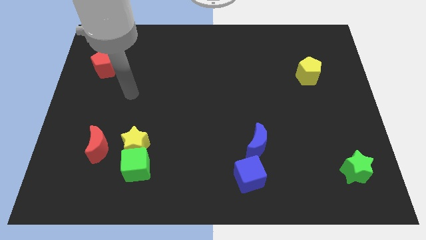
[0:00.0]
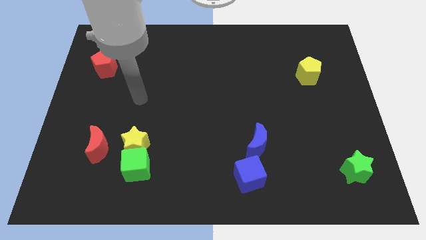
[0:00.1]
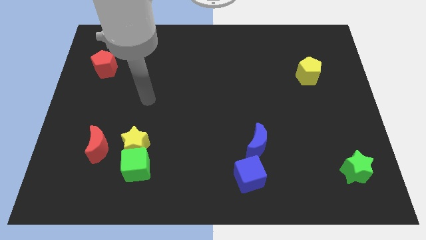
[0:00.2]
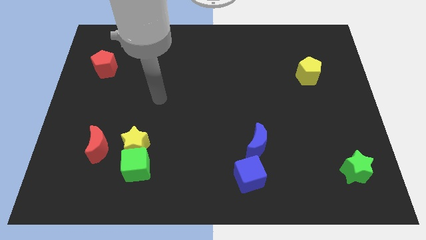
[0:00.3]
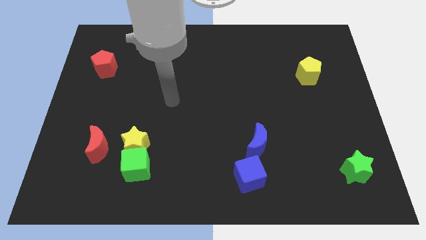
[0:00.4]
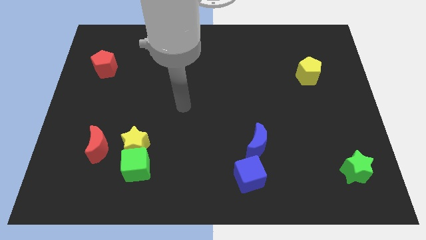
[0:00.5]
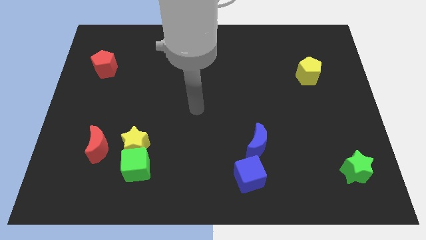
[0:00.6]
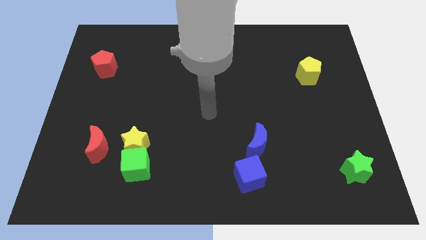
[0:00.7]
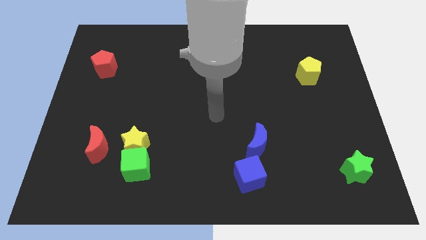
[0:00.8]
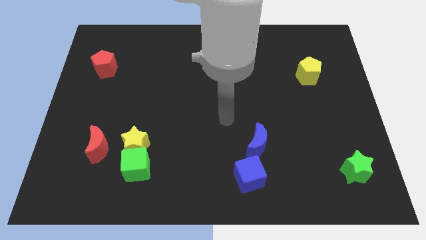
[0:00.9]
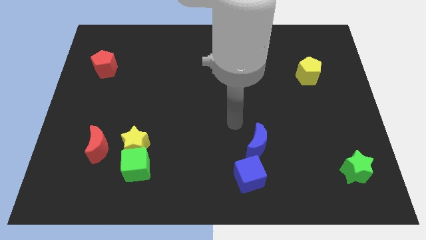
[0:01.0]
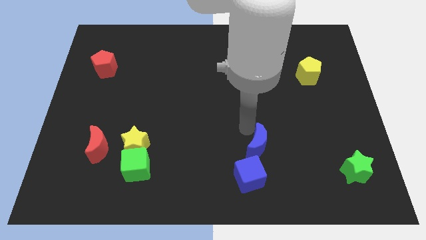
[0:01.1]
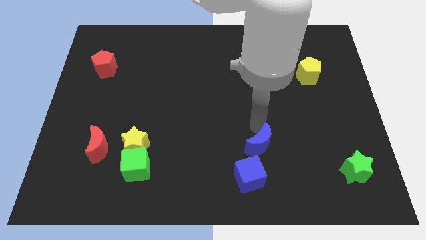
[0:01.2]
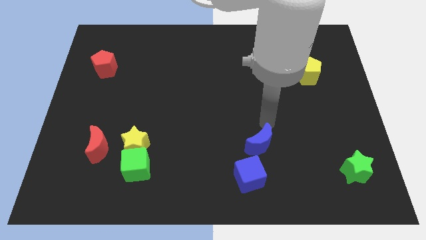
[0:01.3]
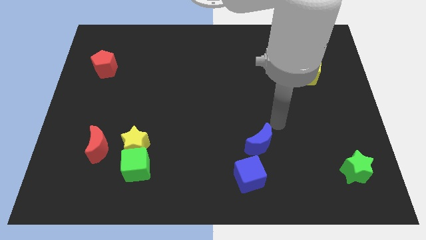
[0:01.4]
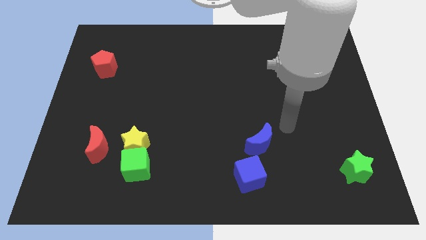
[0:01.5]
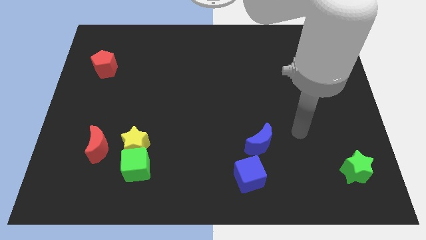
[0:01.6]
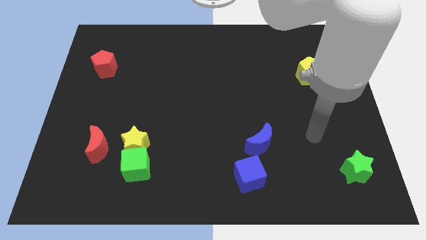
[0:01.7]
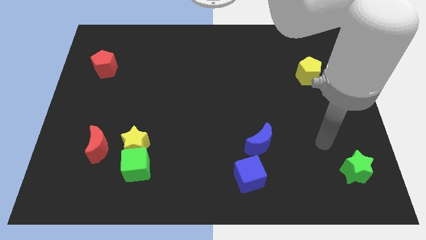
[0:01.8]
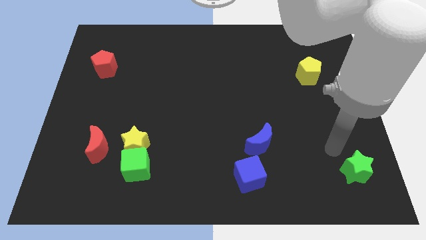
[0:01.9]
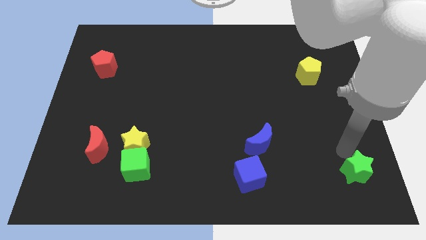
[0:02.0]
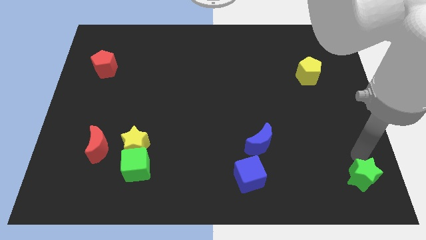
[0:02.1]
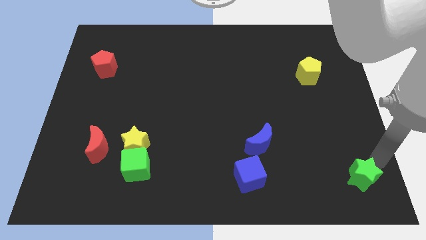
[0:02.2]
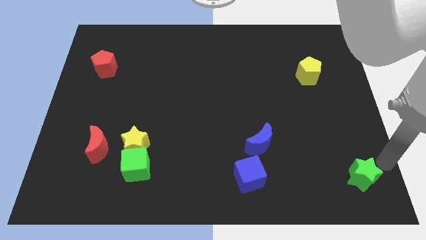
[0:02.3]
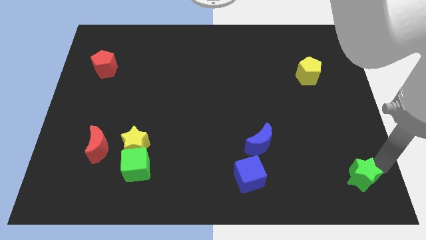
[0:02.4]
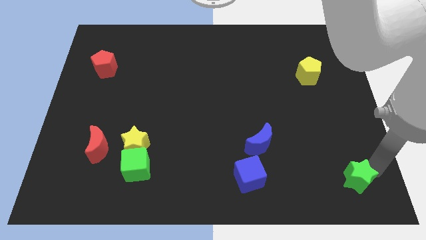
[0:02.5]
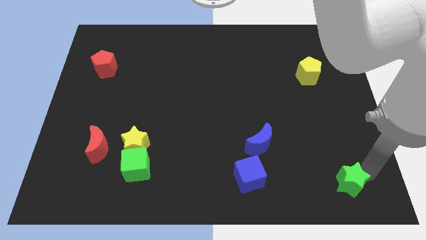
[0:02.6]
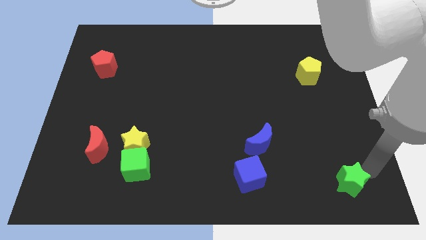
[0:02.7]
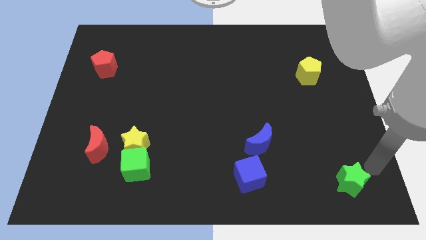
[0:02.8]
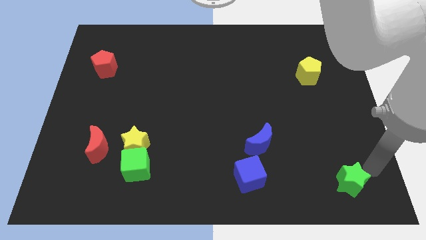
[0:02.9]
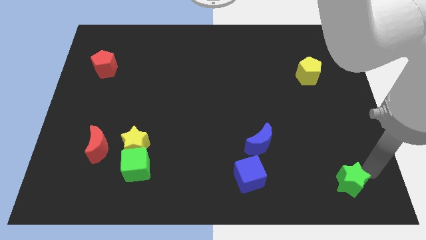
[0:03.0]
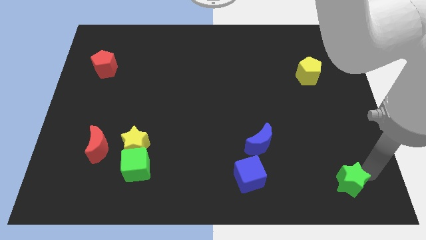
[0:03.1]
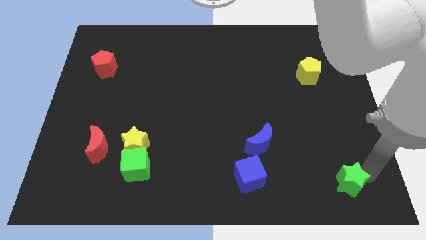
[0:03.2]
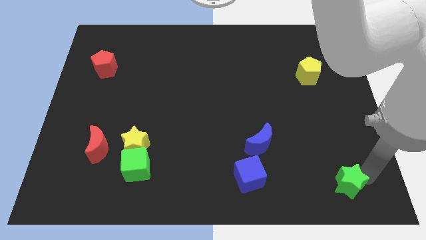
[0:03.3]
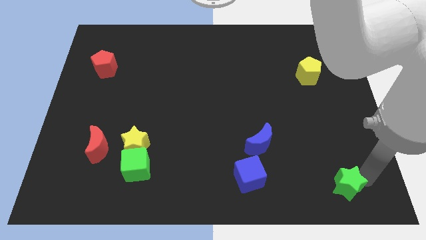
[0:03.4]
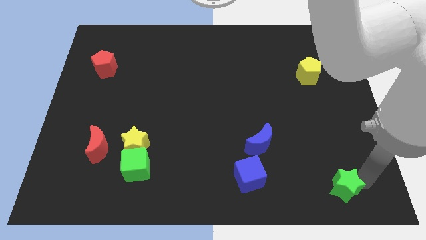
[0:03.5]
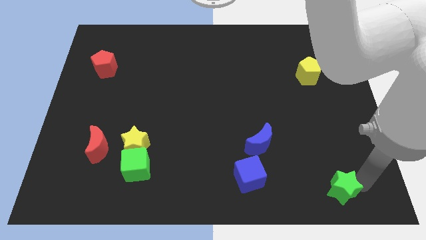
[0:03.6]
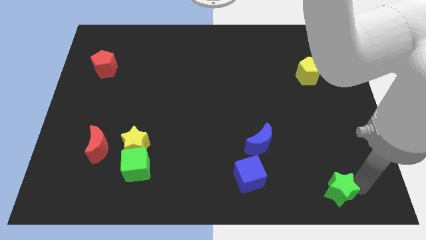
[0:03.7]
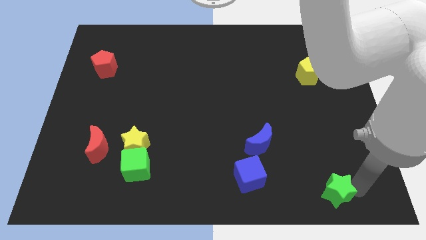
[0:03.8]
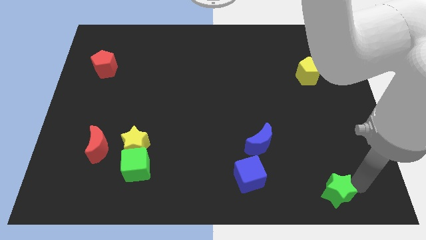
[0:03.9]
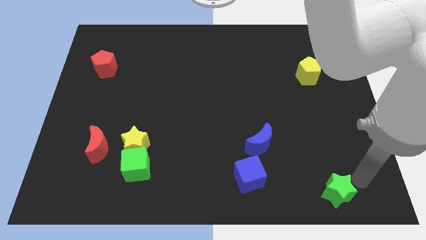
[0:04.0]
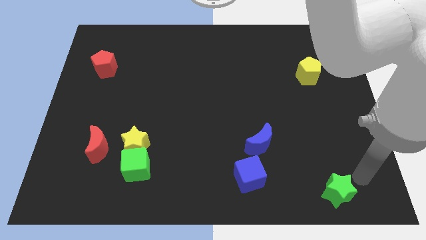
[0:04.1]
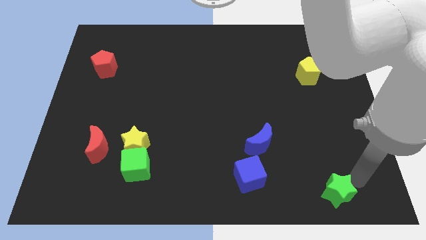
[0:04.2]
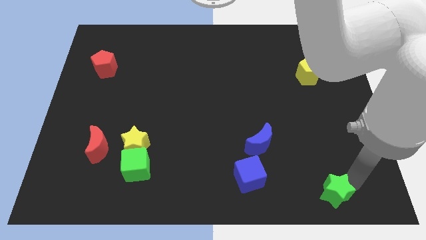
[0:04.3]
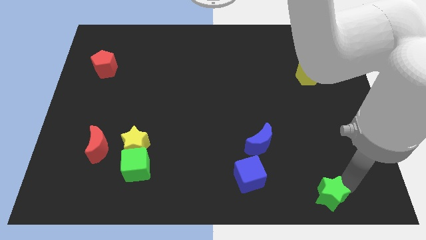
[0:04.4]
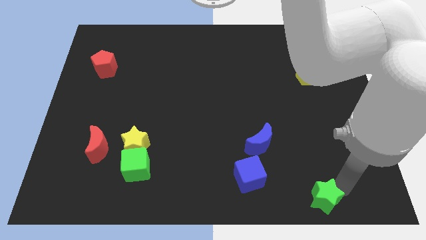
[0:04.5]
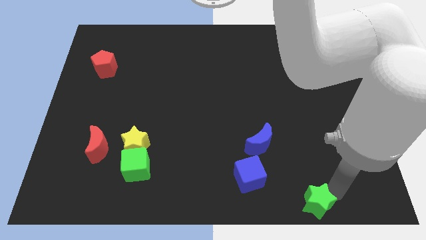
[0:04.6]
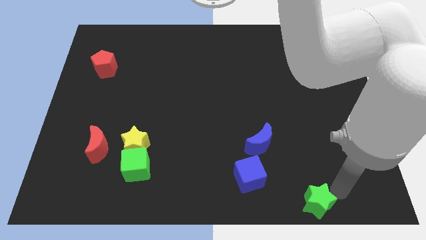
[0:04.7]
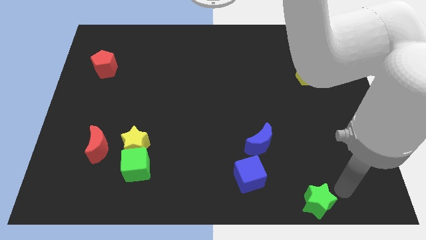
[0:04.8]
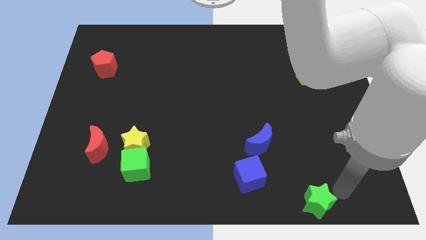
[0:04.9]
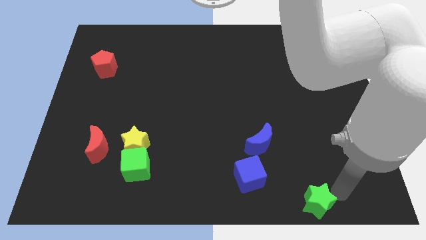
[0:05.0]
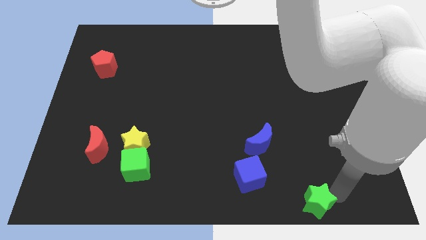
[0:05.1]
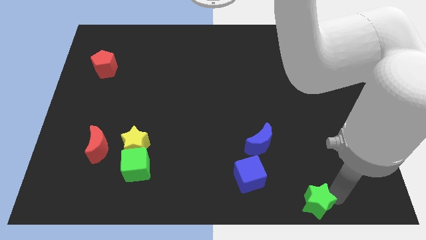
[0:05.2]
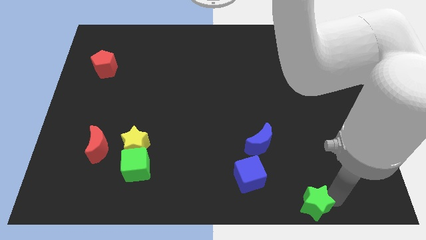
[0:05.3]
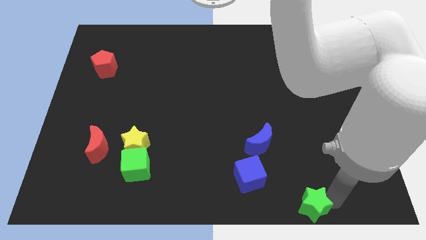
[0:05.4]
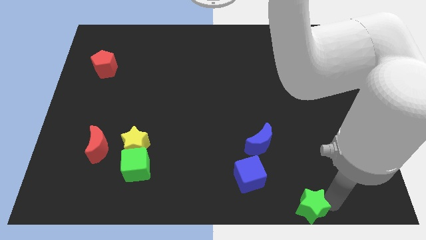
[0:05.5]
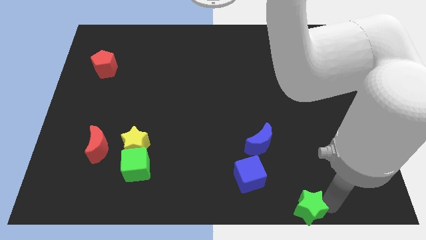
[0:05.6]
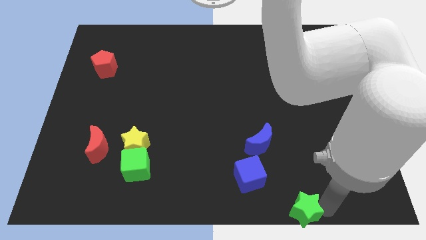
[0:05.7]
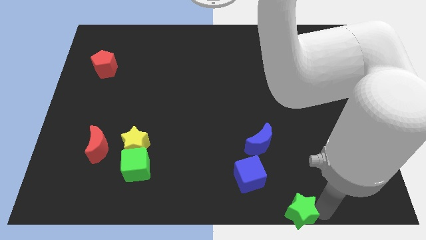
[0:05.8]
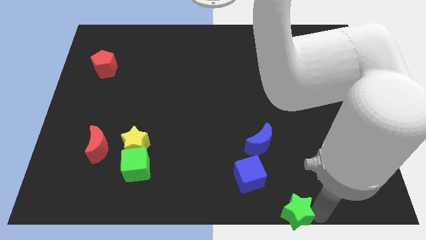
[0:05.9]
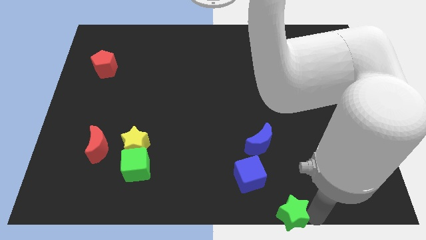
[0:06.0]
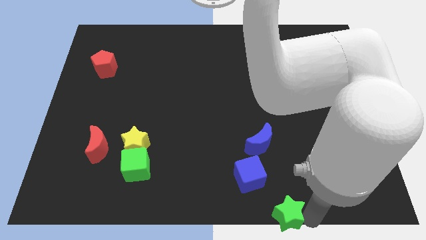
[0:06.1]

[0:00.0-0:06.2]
move the green star to the bottom
